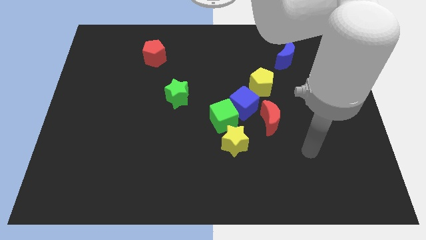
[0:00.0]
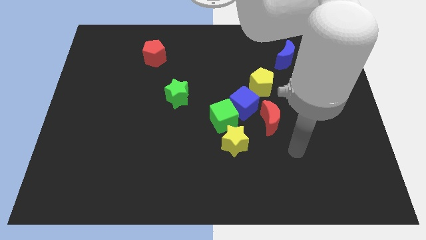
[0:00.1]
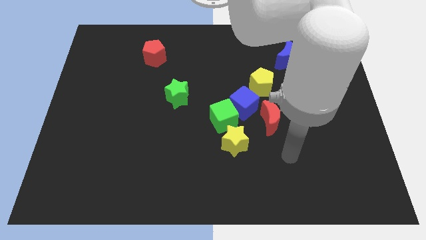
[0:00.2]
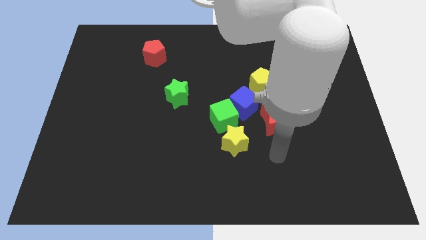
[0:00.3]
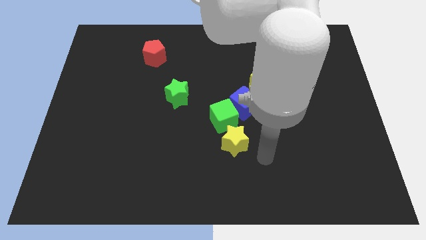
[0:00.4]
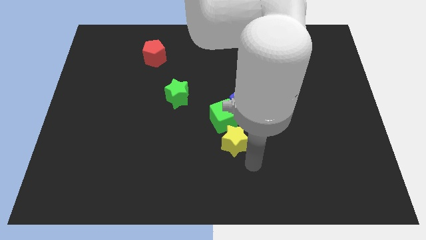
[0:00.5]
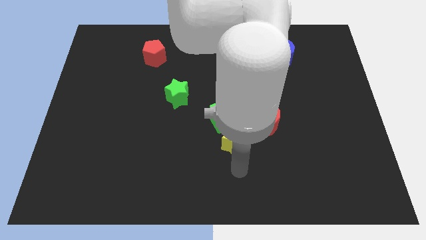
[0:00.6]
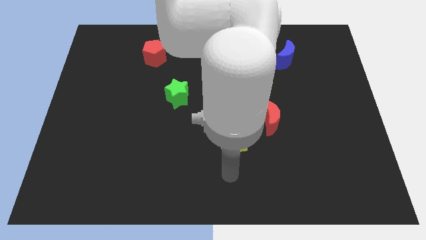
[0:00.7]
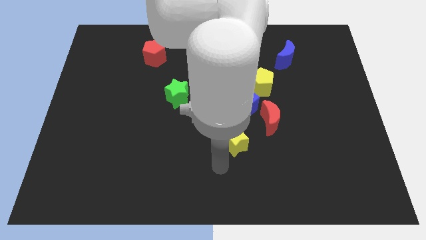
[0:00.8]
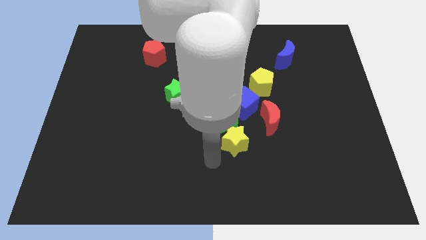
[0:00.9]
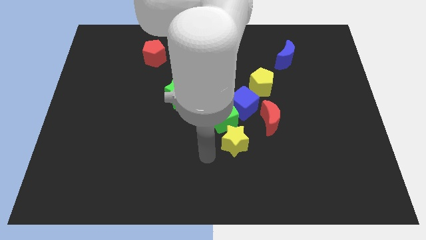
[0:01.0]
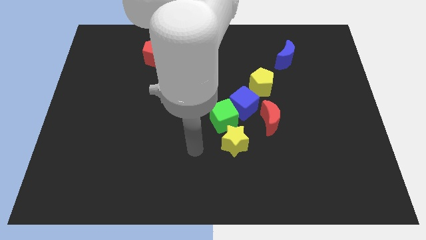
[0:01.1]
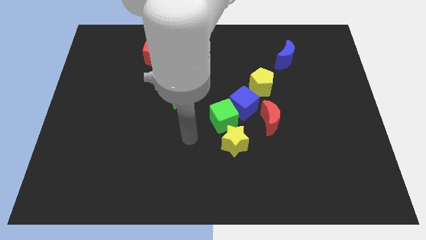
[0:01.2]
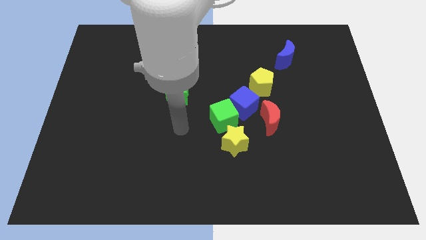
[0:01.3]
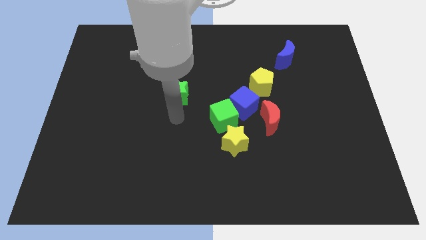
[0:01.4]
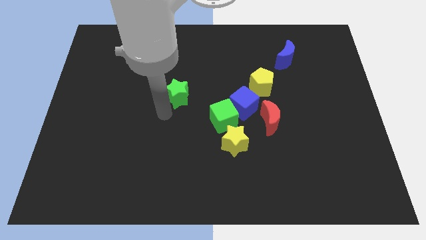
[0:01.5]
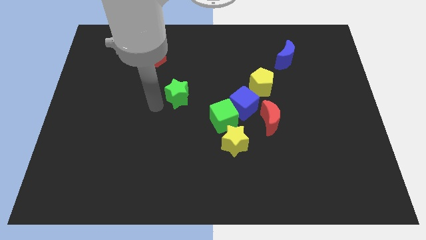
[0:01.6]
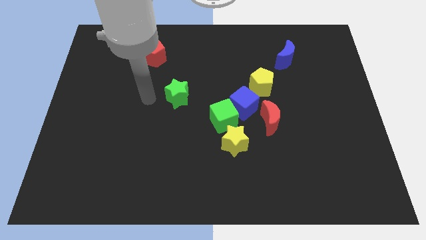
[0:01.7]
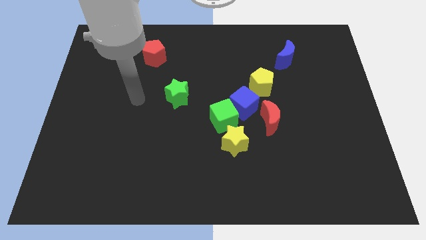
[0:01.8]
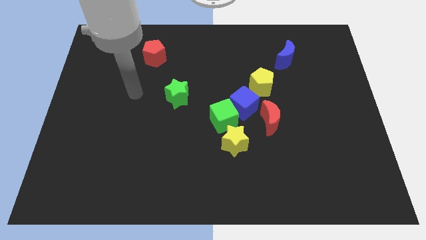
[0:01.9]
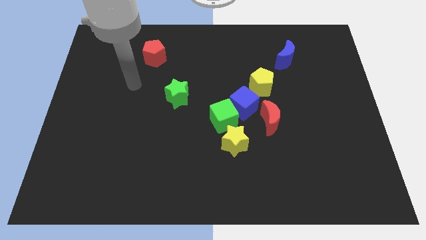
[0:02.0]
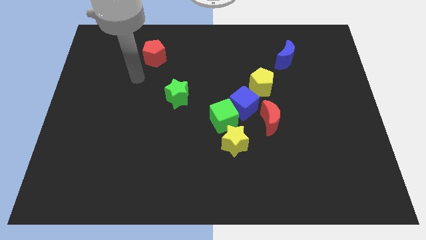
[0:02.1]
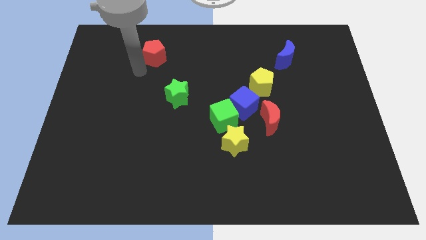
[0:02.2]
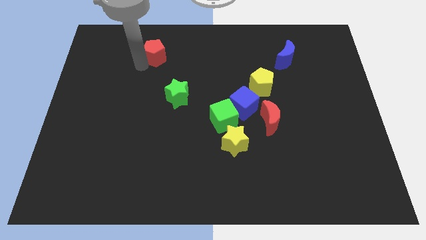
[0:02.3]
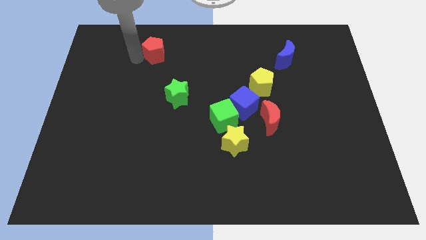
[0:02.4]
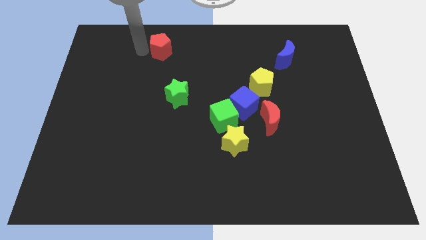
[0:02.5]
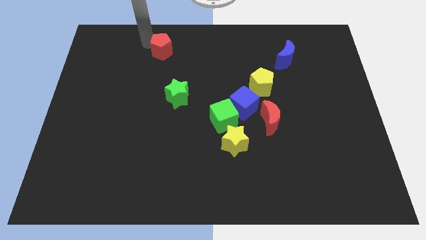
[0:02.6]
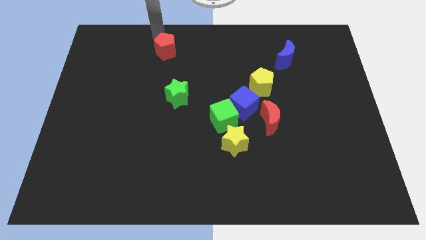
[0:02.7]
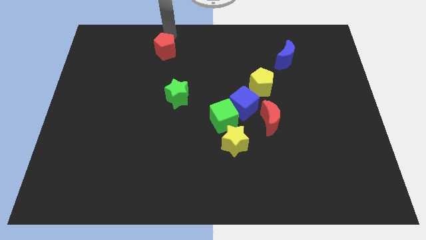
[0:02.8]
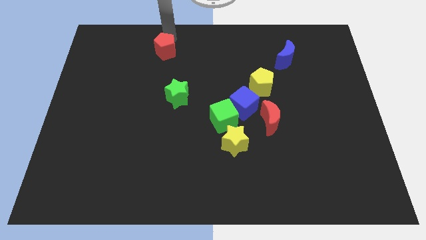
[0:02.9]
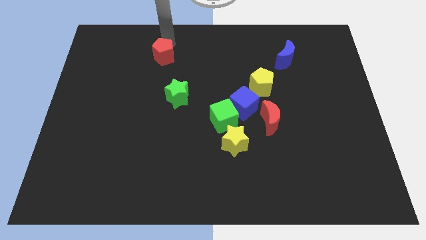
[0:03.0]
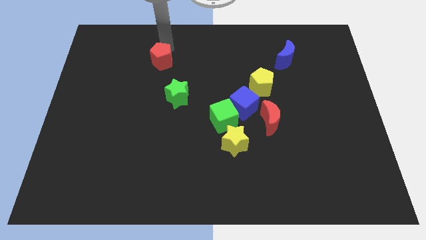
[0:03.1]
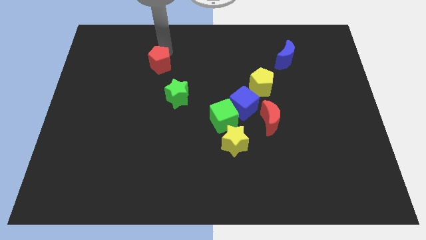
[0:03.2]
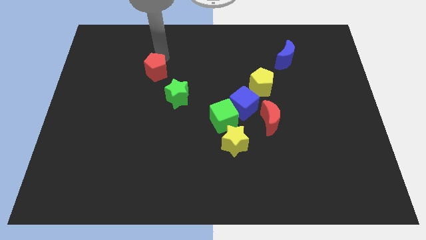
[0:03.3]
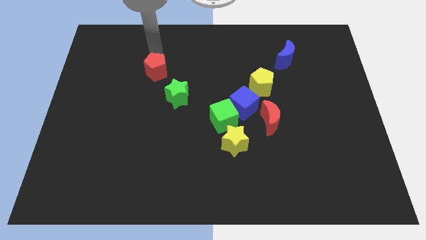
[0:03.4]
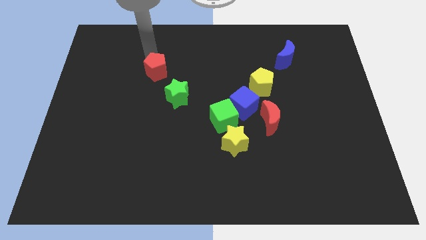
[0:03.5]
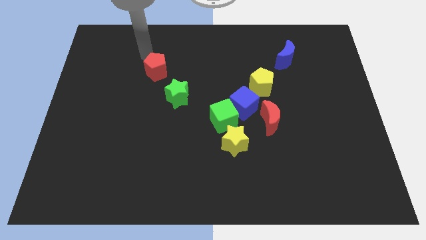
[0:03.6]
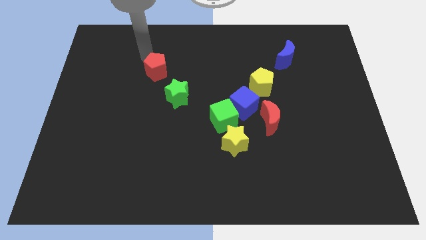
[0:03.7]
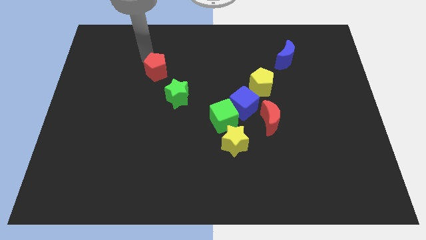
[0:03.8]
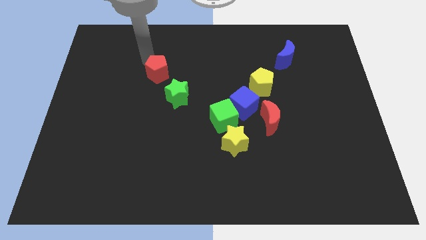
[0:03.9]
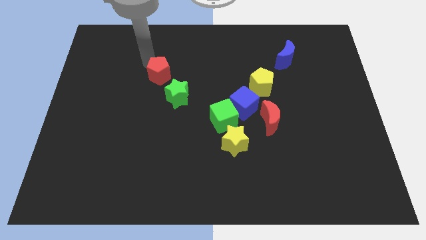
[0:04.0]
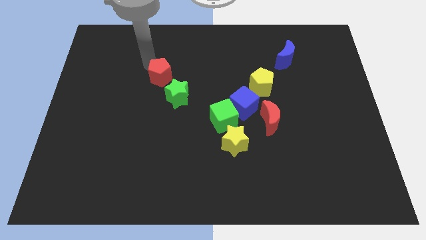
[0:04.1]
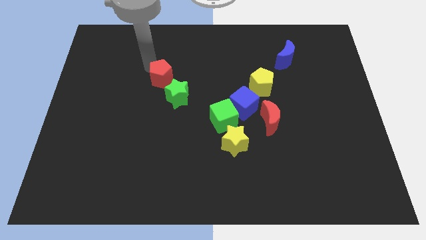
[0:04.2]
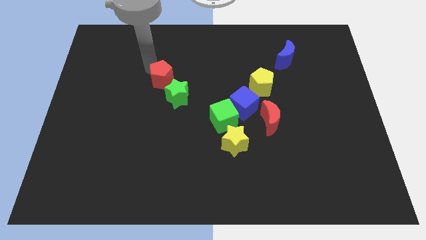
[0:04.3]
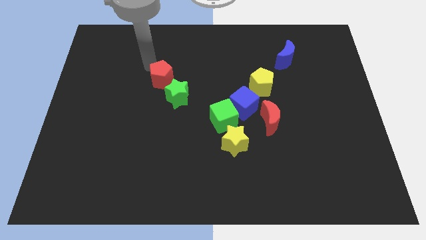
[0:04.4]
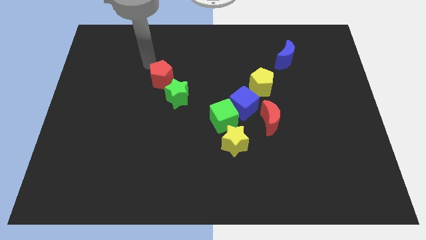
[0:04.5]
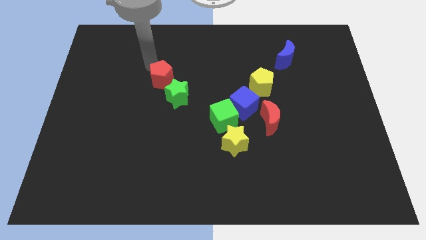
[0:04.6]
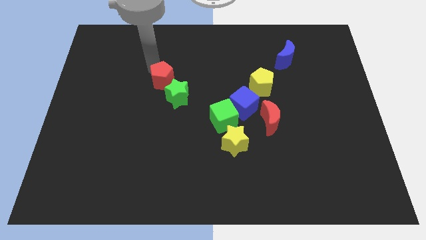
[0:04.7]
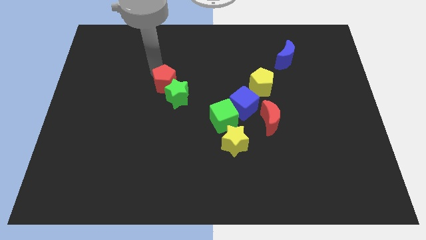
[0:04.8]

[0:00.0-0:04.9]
put the red pentagon next to the green star

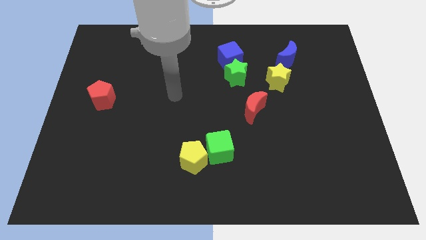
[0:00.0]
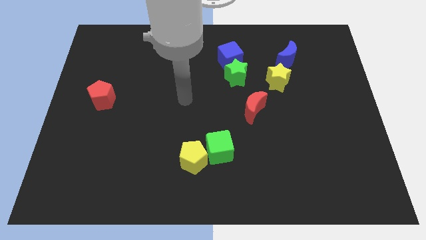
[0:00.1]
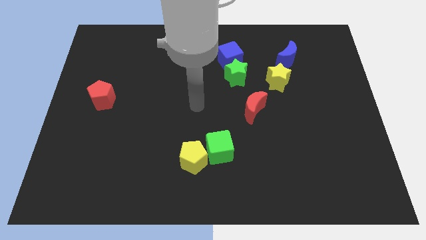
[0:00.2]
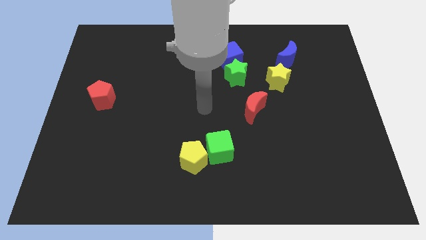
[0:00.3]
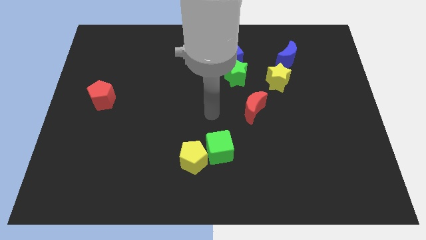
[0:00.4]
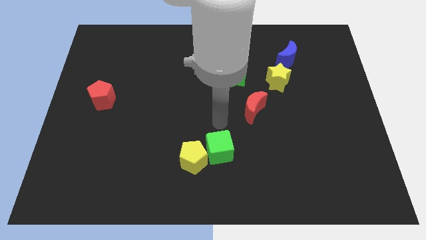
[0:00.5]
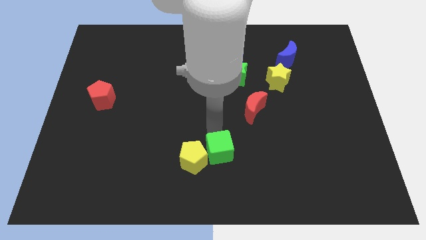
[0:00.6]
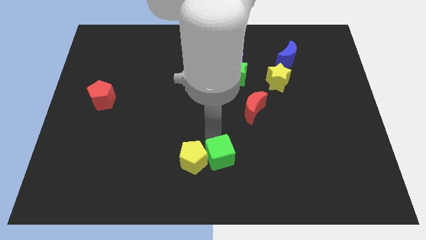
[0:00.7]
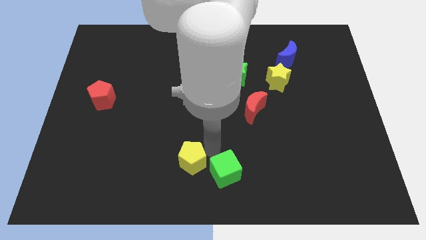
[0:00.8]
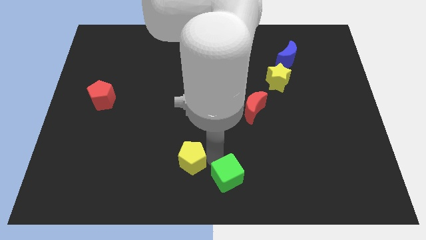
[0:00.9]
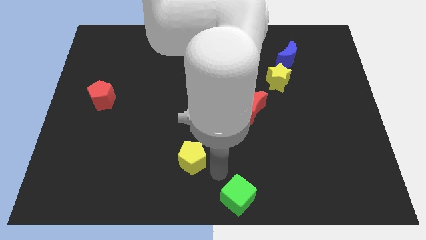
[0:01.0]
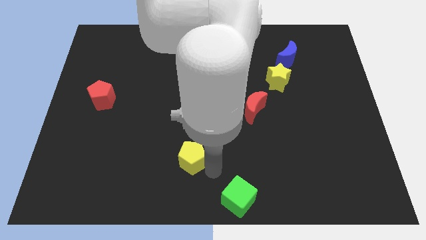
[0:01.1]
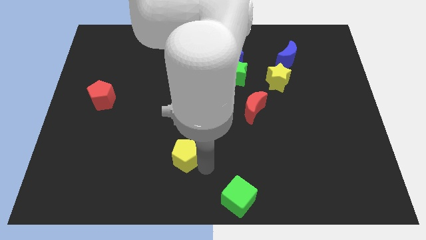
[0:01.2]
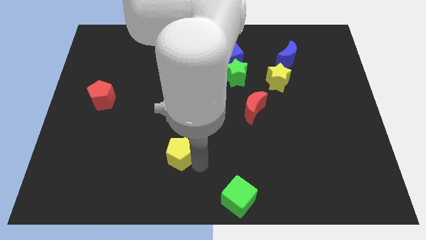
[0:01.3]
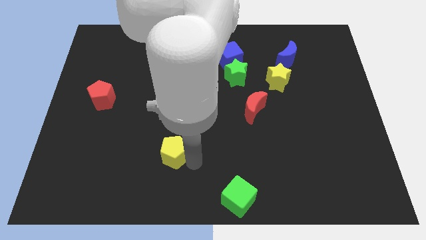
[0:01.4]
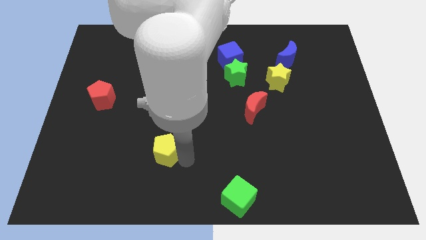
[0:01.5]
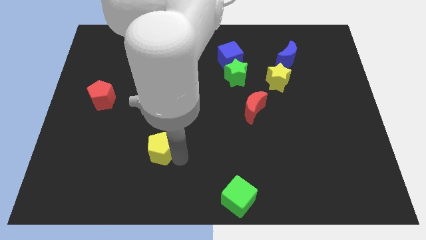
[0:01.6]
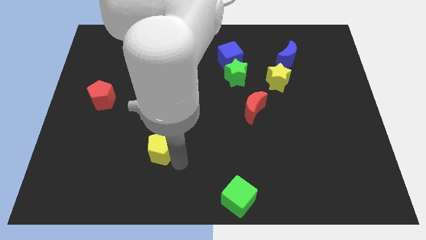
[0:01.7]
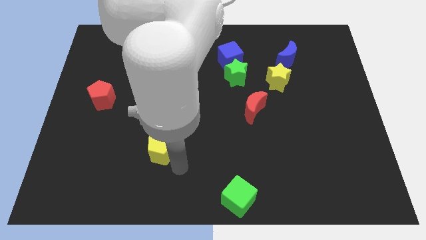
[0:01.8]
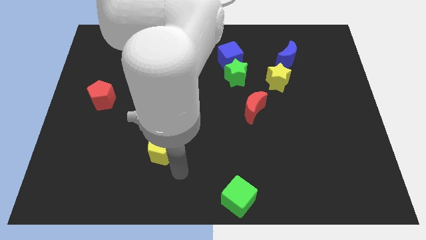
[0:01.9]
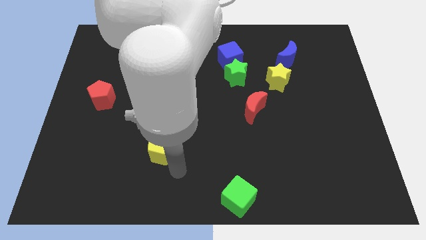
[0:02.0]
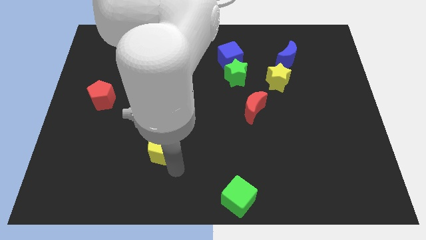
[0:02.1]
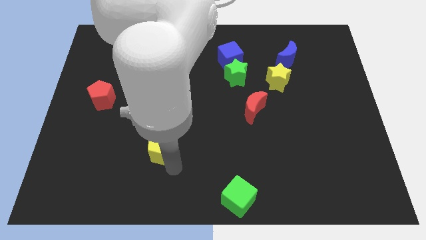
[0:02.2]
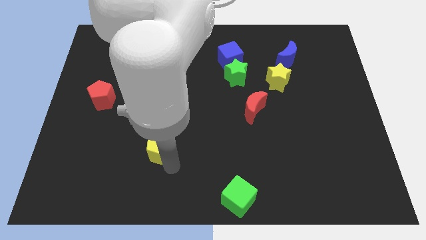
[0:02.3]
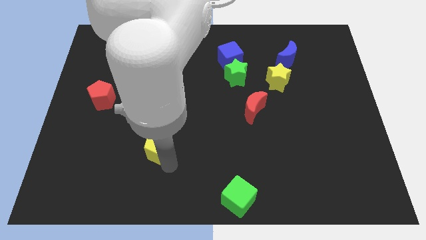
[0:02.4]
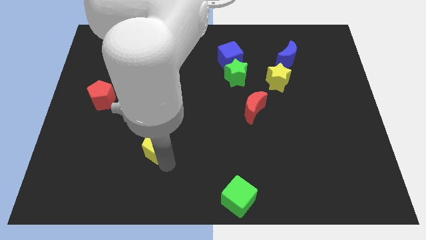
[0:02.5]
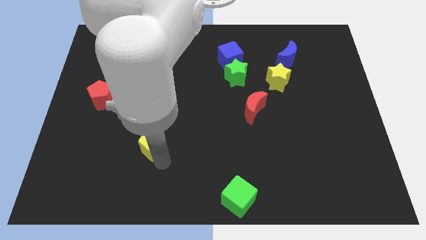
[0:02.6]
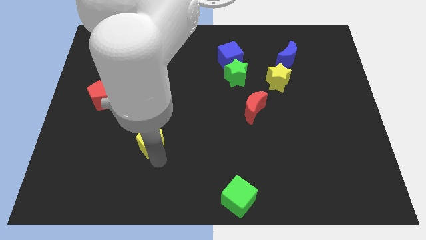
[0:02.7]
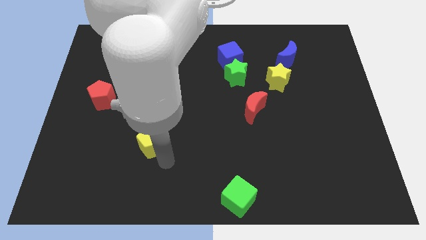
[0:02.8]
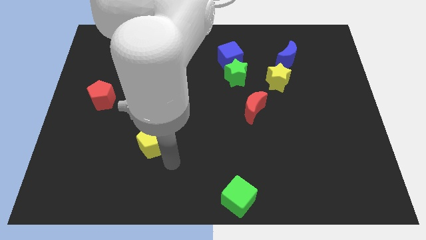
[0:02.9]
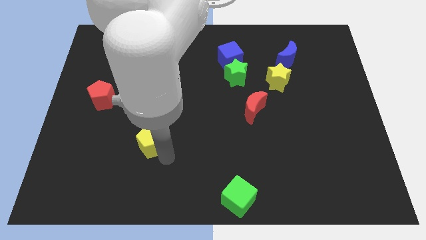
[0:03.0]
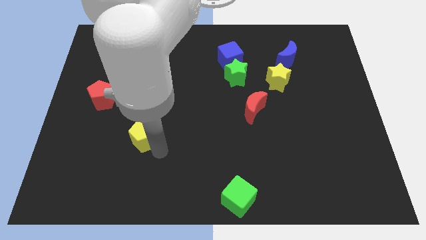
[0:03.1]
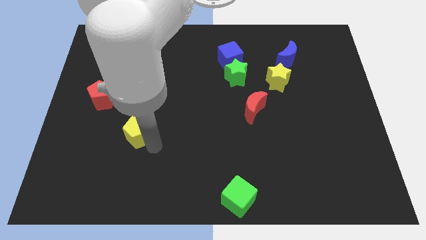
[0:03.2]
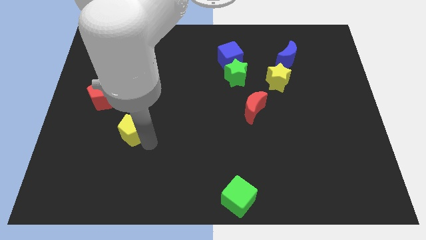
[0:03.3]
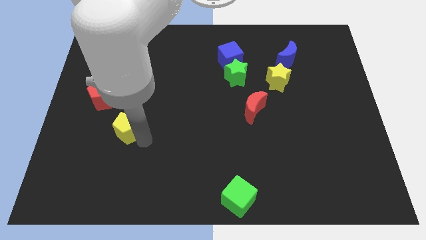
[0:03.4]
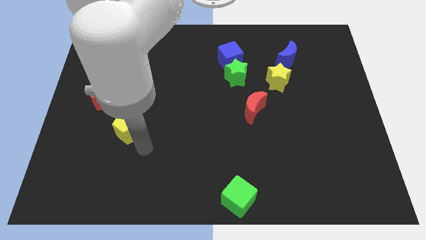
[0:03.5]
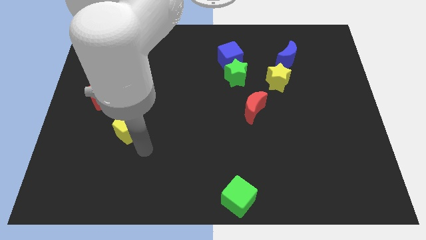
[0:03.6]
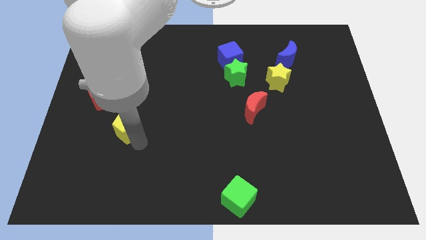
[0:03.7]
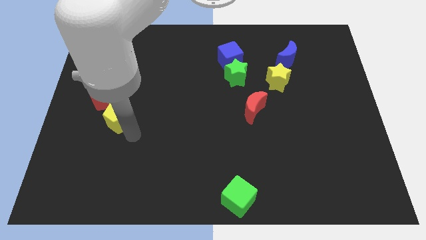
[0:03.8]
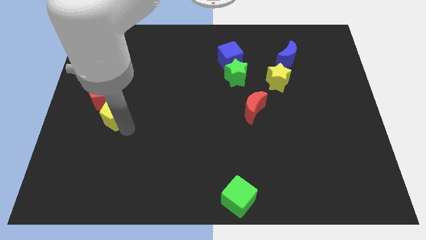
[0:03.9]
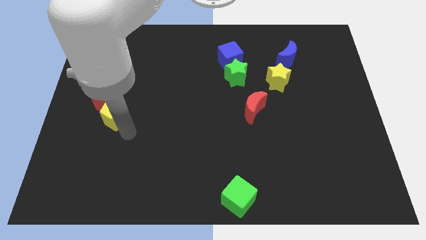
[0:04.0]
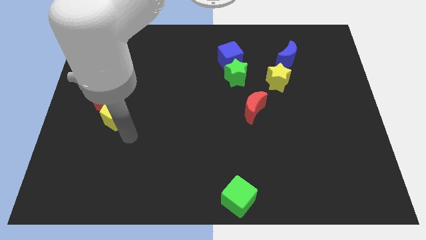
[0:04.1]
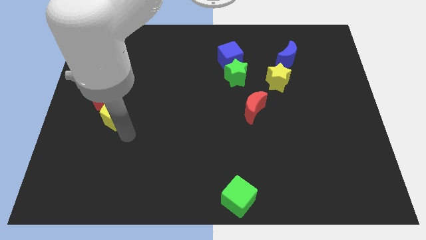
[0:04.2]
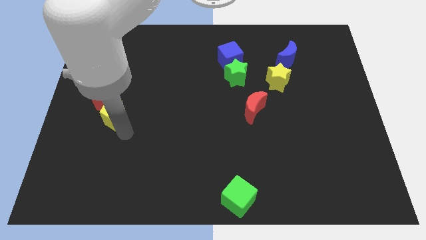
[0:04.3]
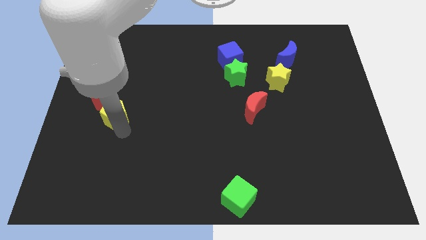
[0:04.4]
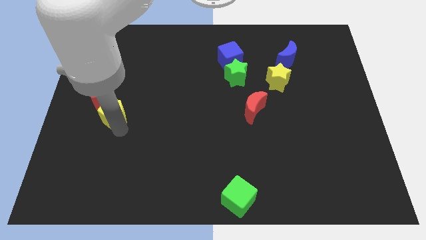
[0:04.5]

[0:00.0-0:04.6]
put the yellow pentagon close to the red pentagon
